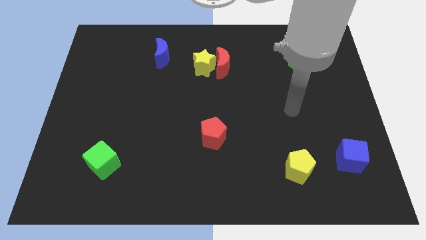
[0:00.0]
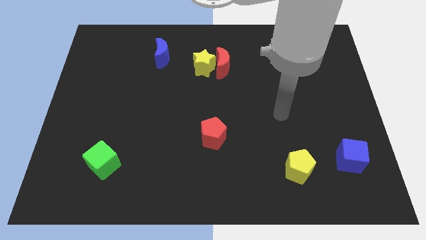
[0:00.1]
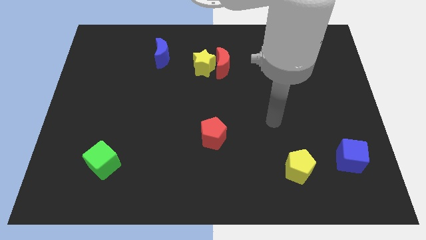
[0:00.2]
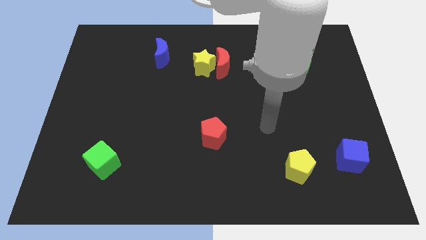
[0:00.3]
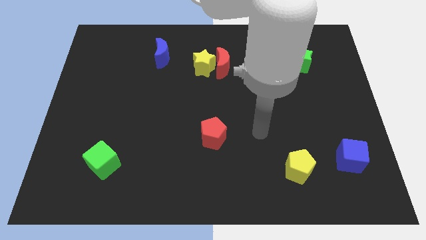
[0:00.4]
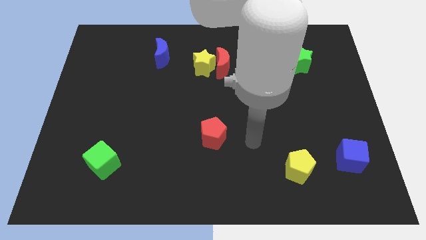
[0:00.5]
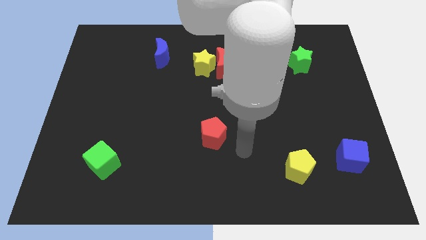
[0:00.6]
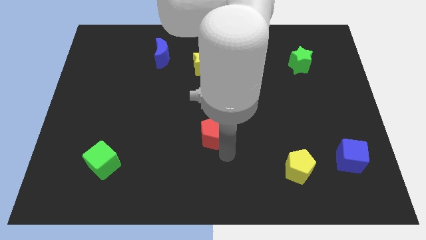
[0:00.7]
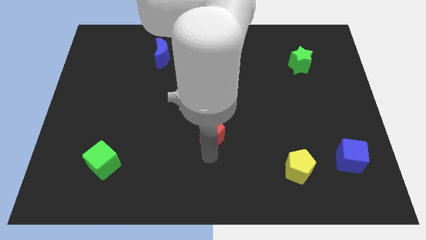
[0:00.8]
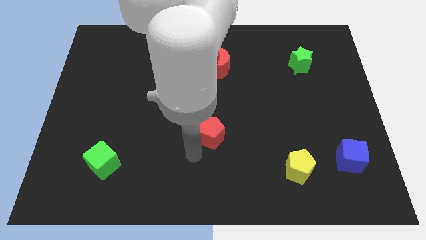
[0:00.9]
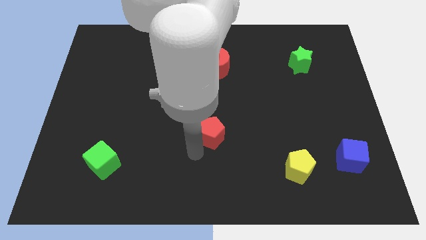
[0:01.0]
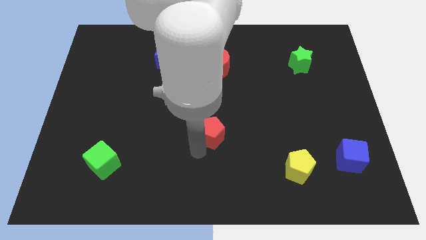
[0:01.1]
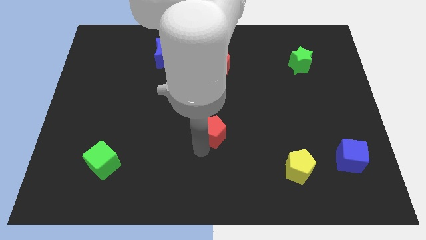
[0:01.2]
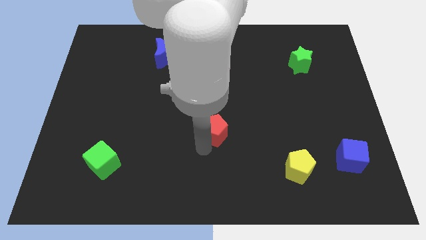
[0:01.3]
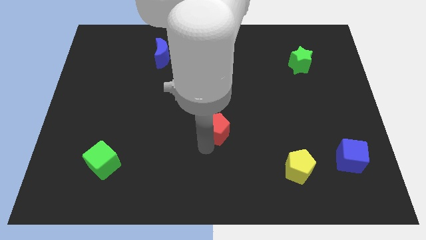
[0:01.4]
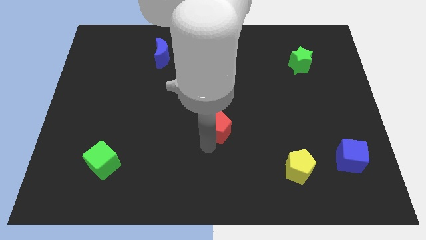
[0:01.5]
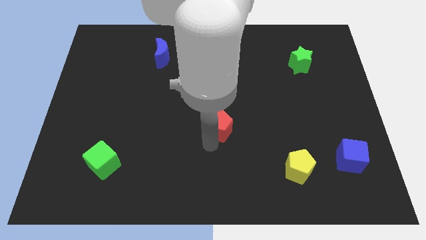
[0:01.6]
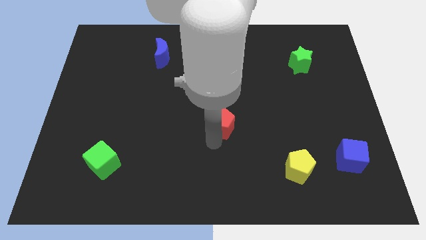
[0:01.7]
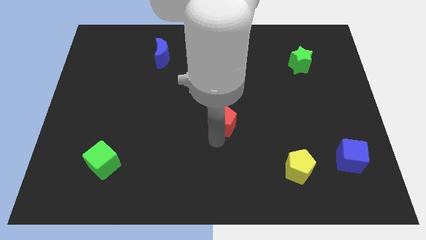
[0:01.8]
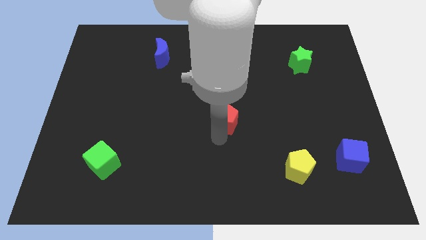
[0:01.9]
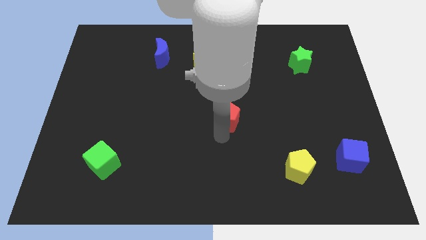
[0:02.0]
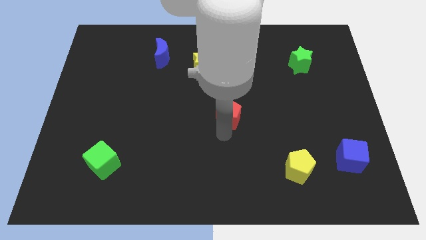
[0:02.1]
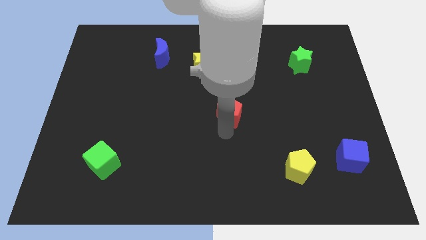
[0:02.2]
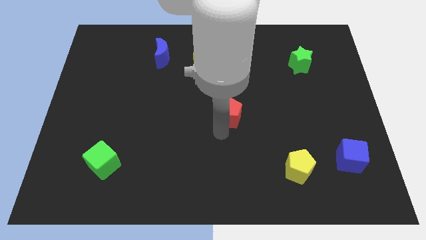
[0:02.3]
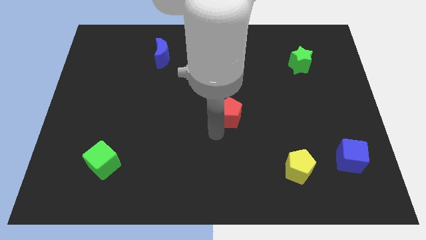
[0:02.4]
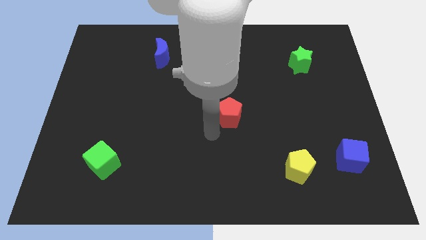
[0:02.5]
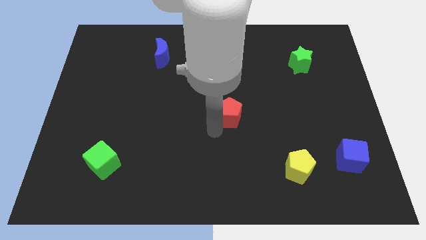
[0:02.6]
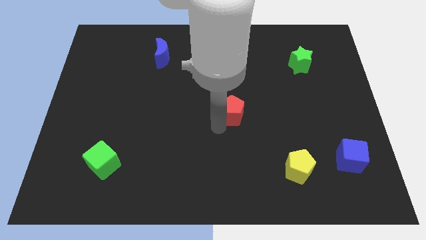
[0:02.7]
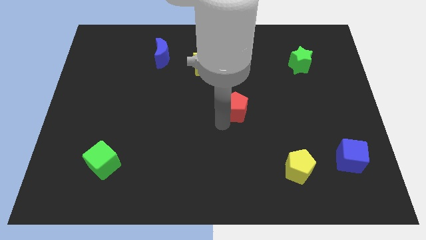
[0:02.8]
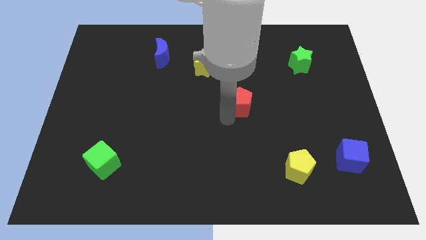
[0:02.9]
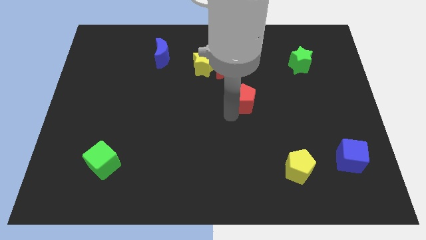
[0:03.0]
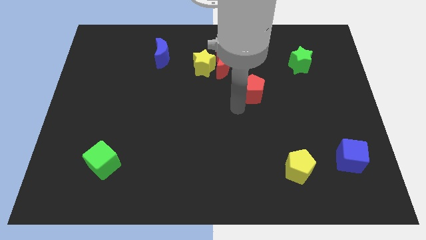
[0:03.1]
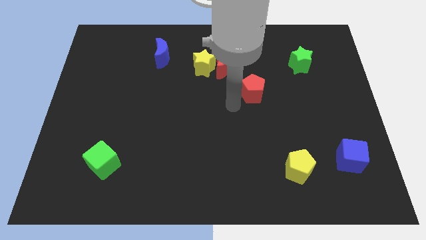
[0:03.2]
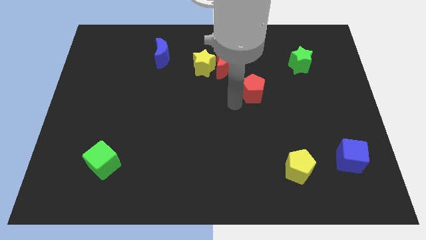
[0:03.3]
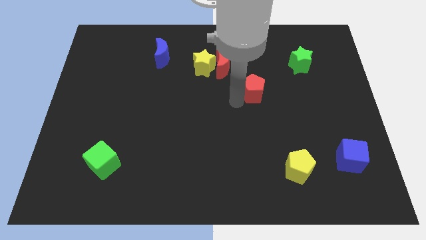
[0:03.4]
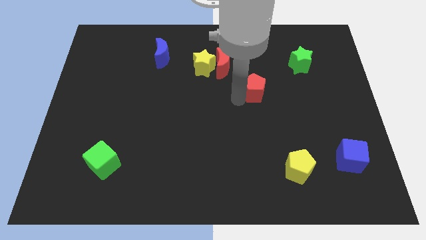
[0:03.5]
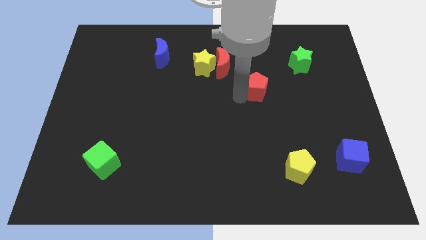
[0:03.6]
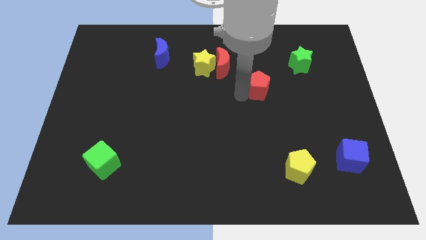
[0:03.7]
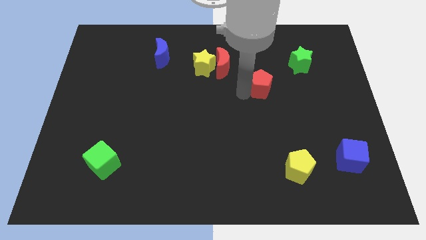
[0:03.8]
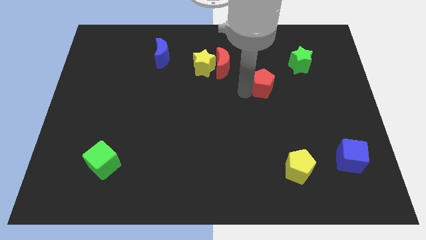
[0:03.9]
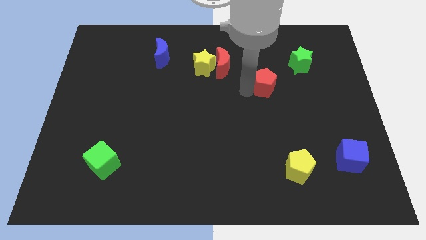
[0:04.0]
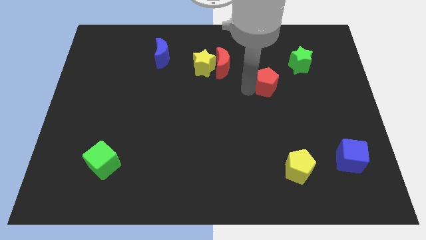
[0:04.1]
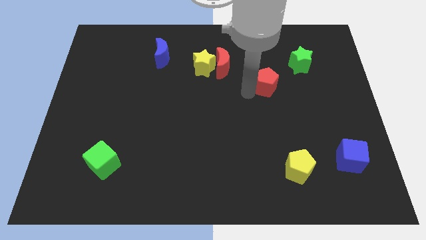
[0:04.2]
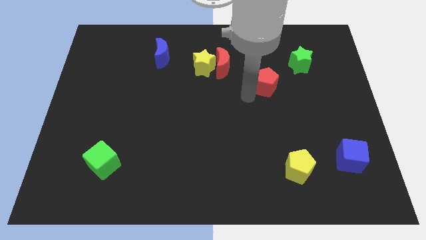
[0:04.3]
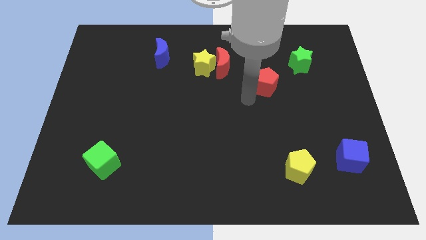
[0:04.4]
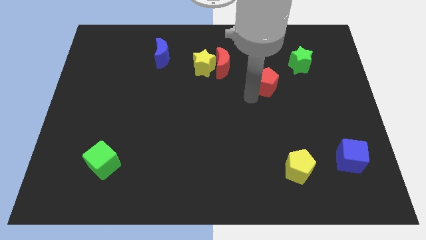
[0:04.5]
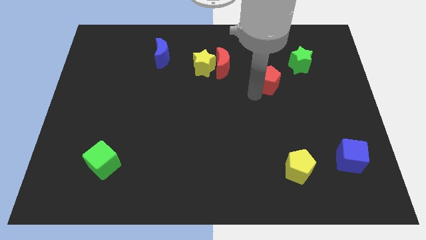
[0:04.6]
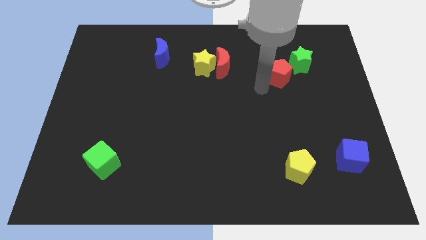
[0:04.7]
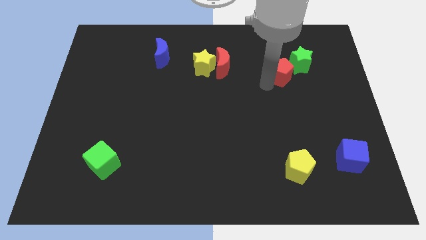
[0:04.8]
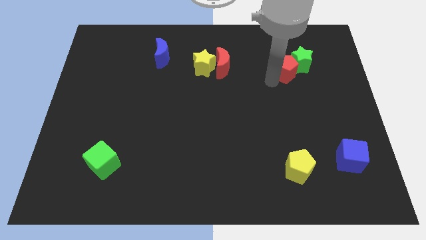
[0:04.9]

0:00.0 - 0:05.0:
put the red pentagon to the green star

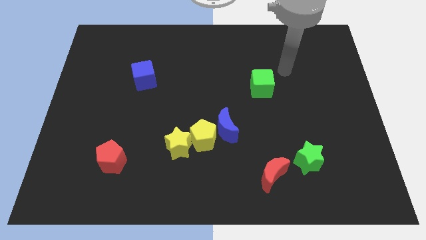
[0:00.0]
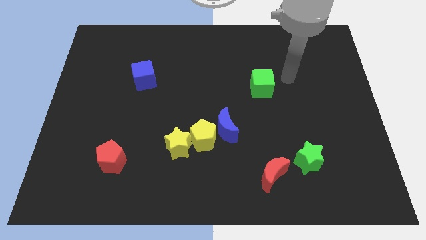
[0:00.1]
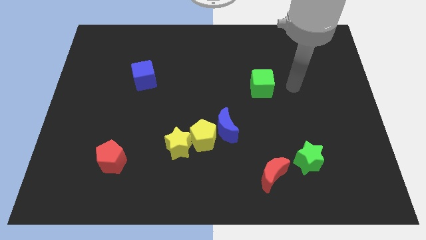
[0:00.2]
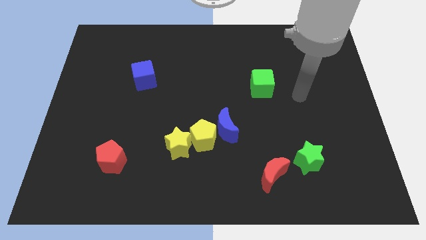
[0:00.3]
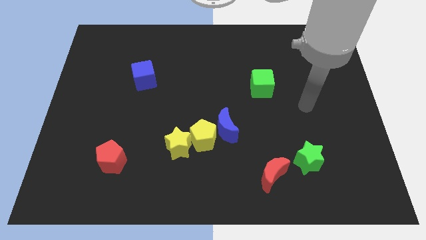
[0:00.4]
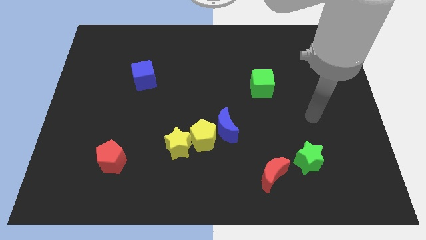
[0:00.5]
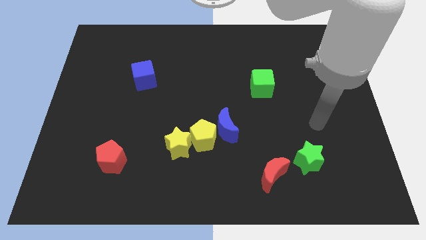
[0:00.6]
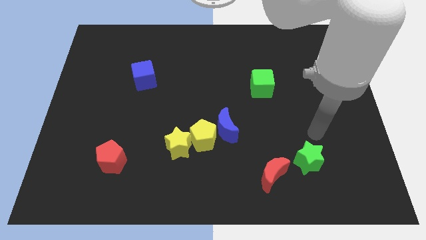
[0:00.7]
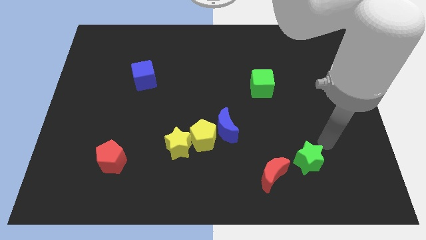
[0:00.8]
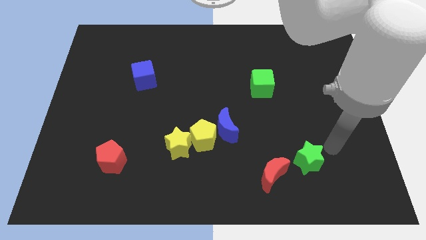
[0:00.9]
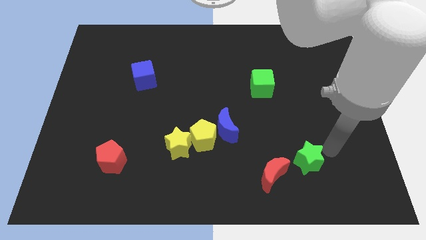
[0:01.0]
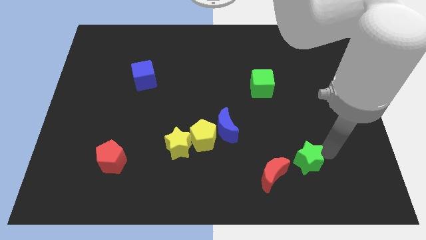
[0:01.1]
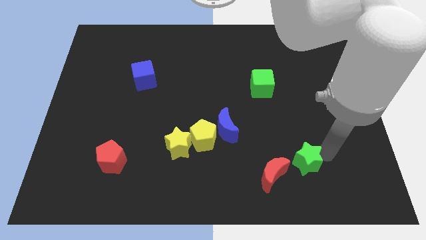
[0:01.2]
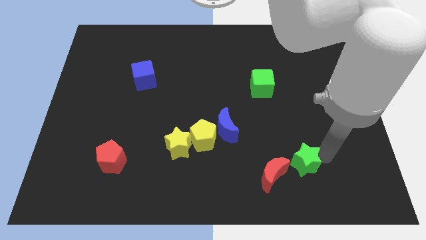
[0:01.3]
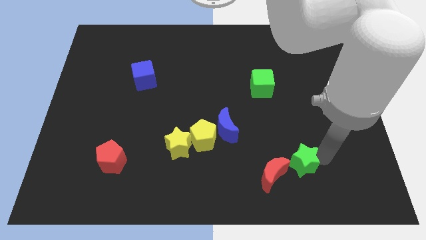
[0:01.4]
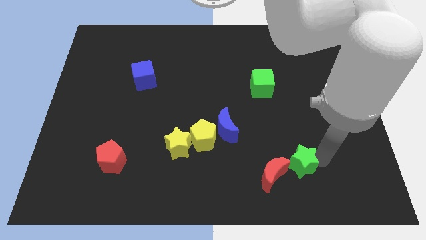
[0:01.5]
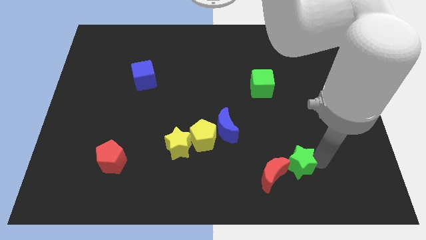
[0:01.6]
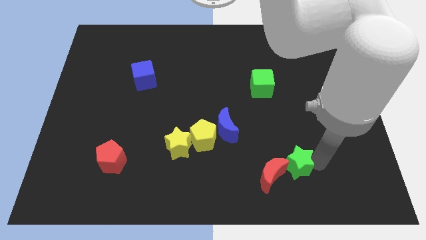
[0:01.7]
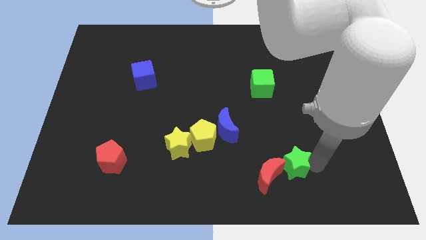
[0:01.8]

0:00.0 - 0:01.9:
move the green star towards the red moon

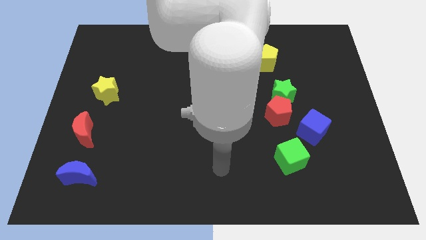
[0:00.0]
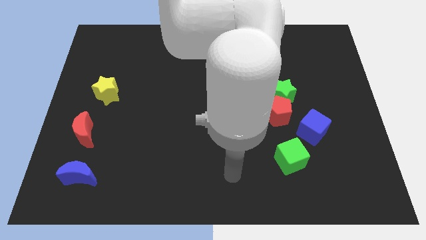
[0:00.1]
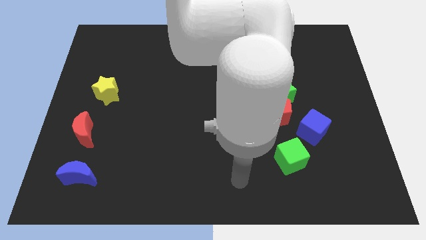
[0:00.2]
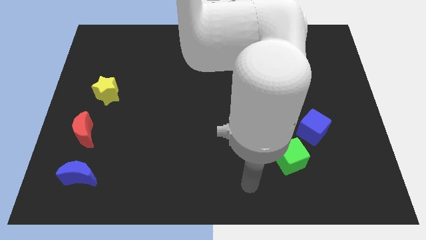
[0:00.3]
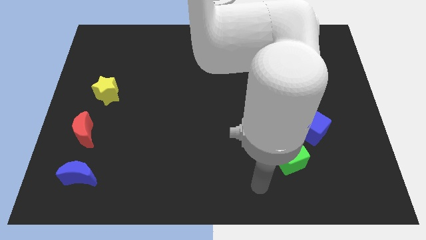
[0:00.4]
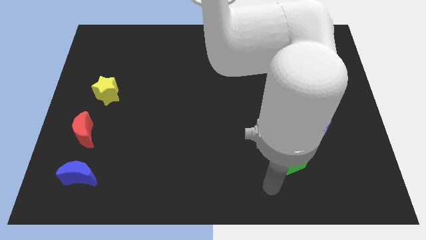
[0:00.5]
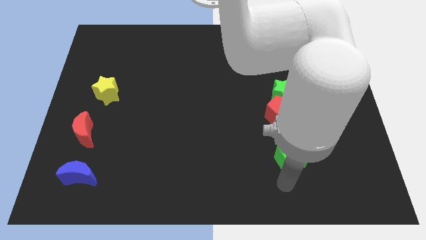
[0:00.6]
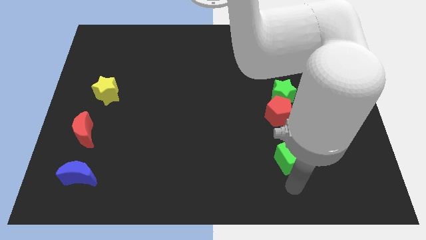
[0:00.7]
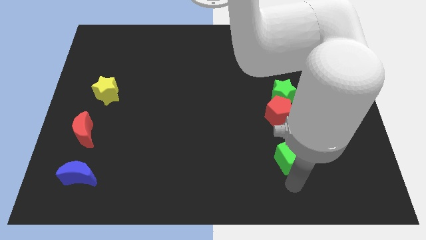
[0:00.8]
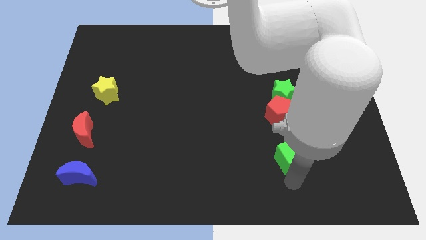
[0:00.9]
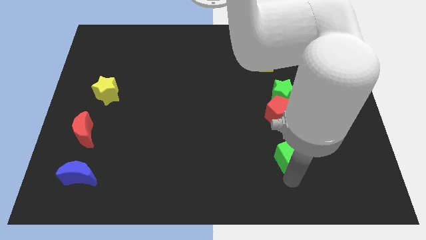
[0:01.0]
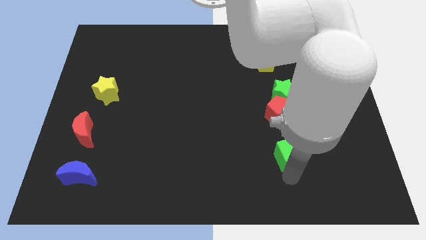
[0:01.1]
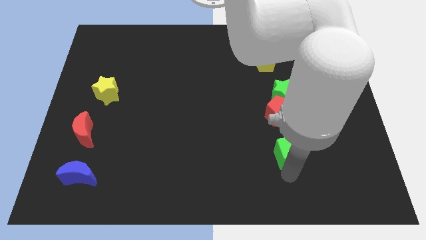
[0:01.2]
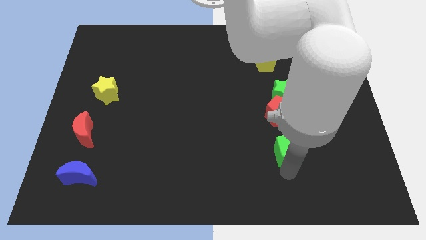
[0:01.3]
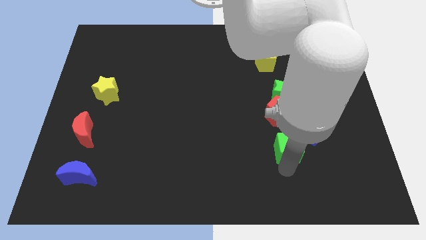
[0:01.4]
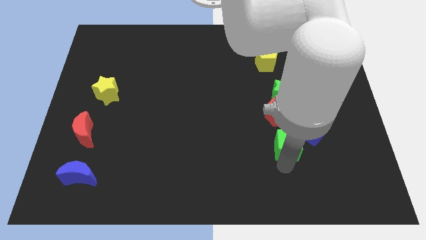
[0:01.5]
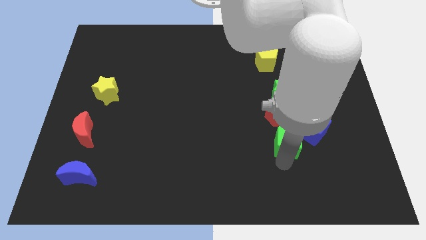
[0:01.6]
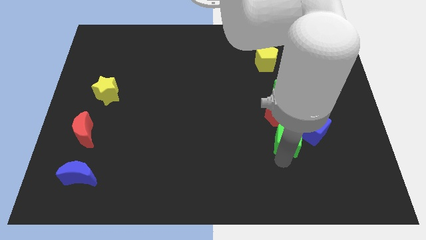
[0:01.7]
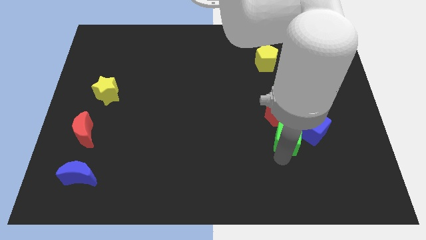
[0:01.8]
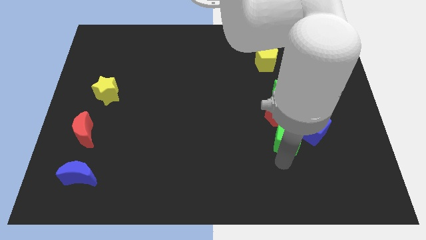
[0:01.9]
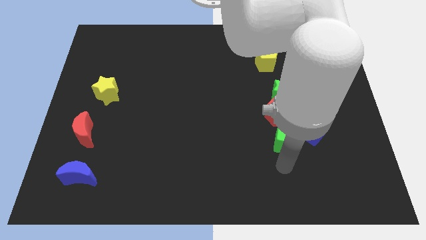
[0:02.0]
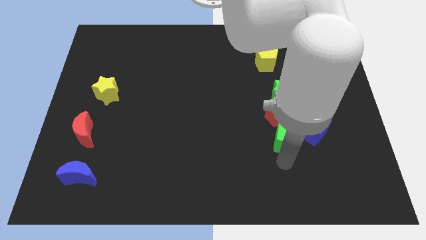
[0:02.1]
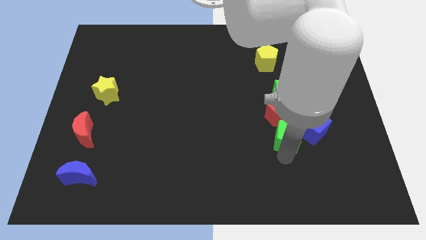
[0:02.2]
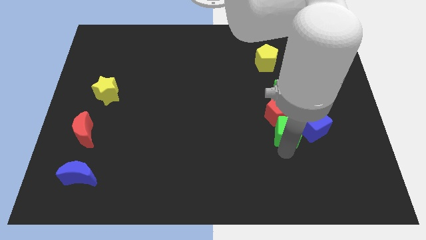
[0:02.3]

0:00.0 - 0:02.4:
move the green cube close to the red pentagon
